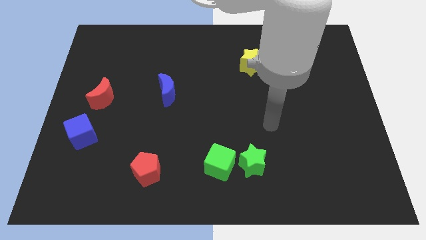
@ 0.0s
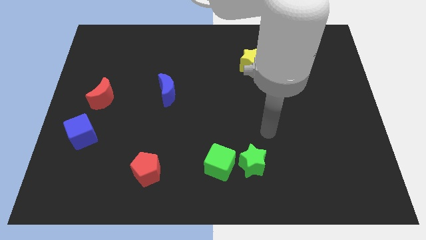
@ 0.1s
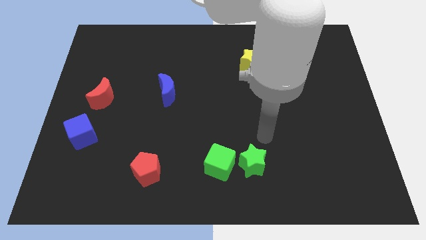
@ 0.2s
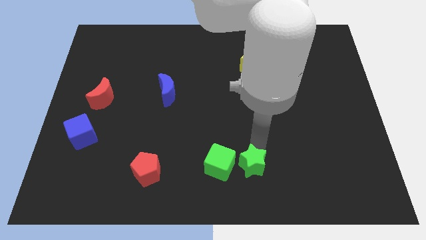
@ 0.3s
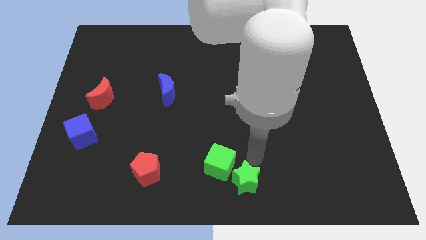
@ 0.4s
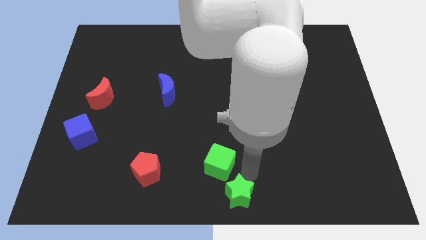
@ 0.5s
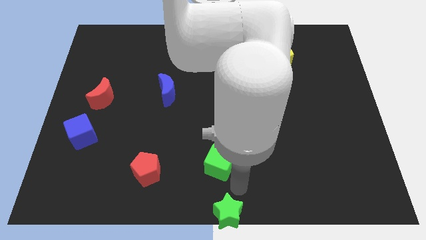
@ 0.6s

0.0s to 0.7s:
pull the green cube apart from the green star

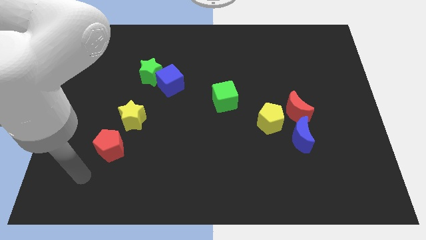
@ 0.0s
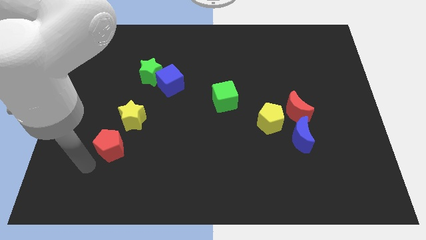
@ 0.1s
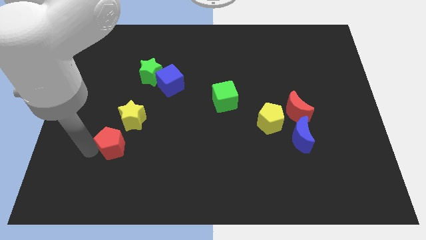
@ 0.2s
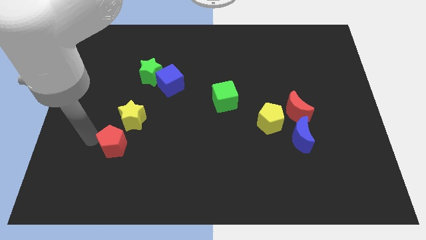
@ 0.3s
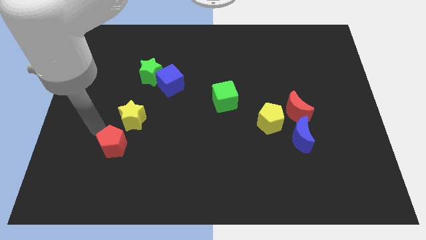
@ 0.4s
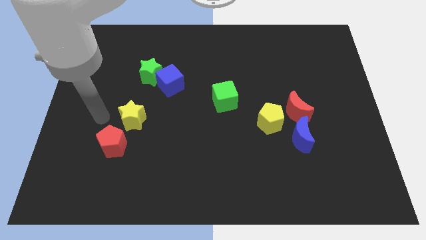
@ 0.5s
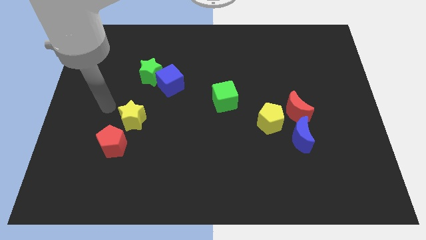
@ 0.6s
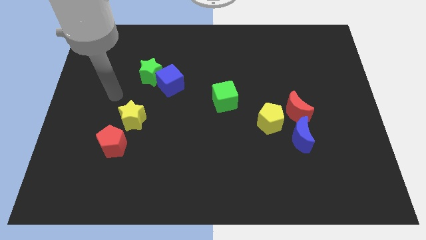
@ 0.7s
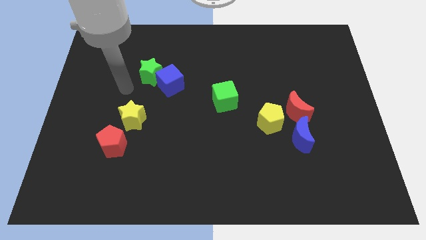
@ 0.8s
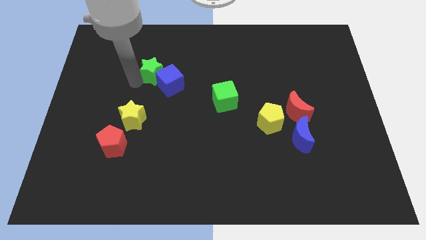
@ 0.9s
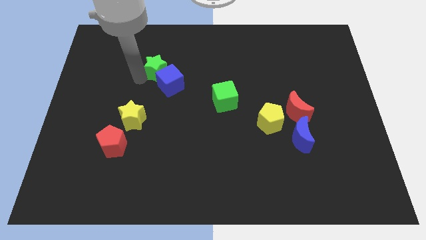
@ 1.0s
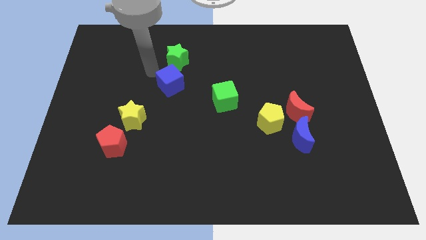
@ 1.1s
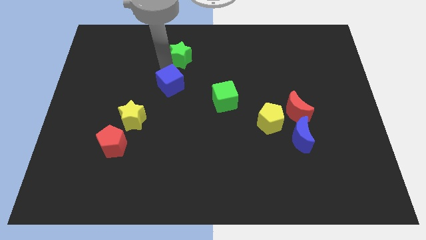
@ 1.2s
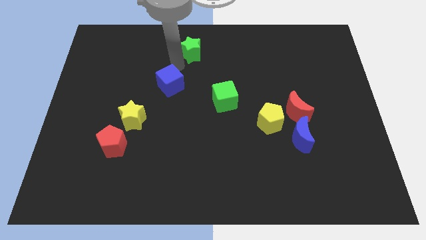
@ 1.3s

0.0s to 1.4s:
move the blue cube away from the green star

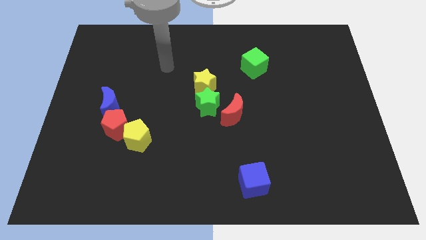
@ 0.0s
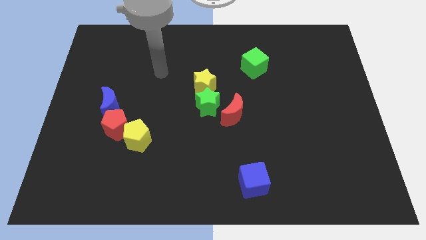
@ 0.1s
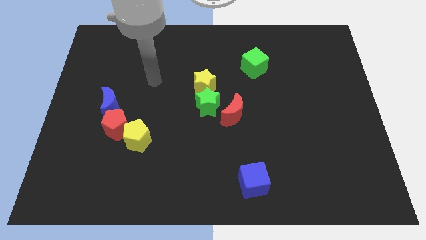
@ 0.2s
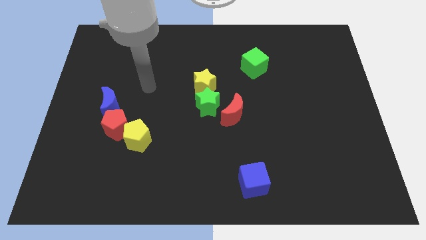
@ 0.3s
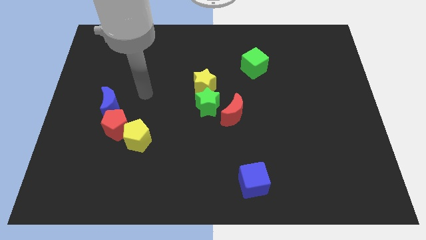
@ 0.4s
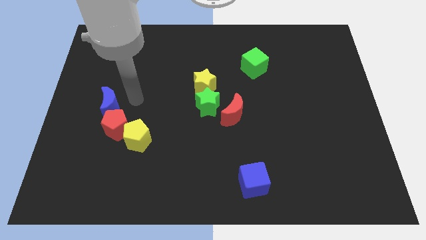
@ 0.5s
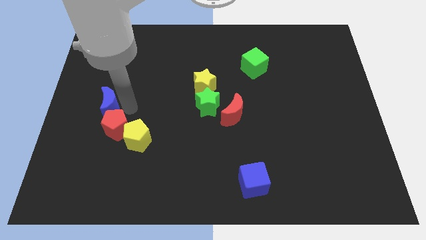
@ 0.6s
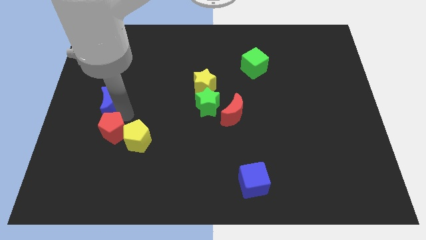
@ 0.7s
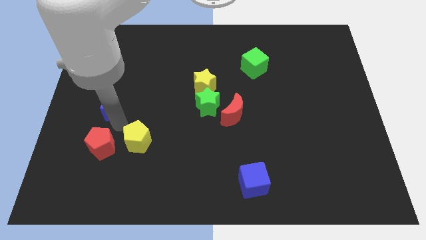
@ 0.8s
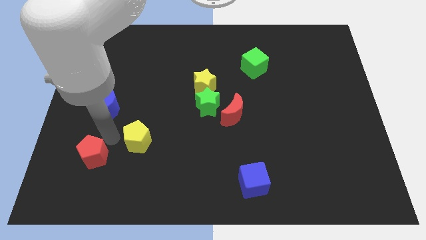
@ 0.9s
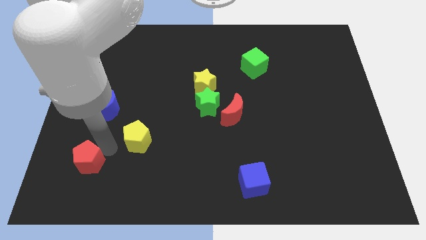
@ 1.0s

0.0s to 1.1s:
pull the yellow pentagon apart from the red pentagon

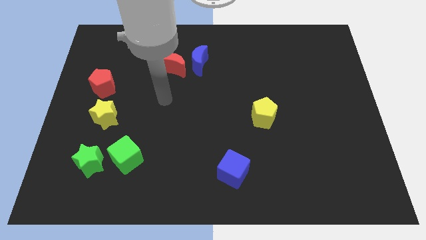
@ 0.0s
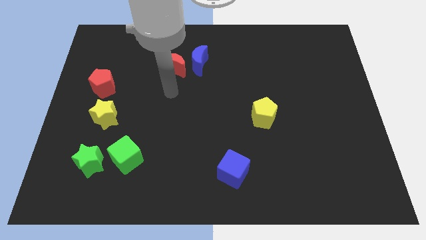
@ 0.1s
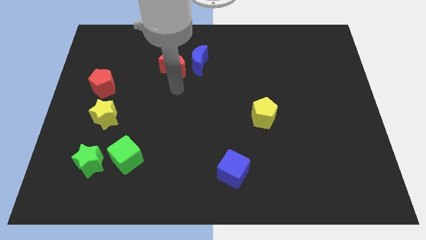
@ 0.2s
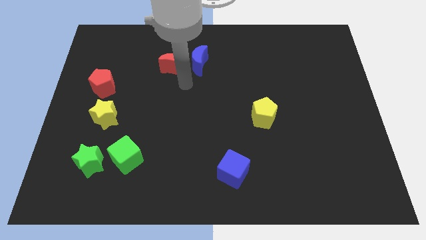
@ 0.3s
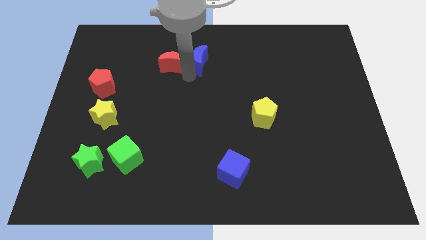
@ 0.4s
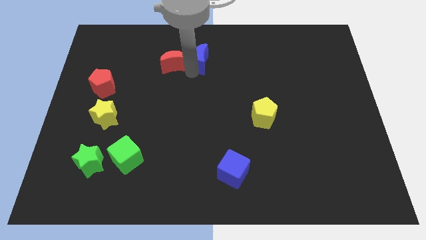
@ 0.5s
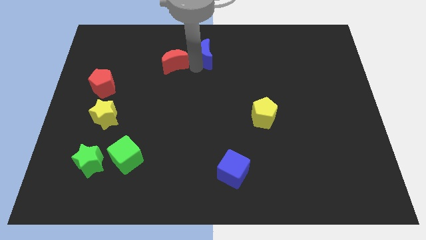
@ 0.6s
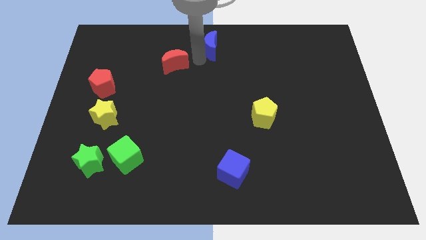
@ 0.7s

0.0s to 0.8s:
separate the red moon from the blue moon

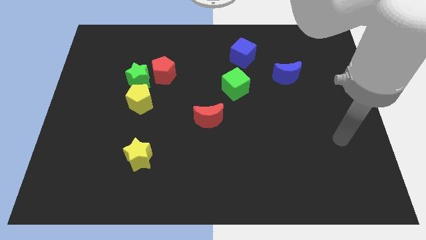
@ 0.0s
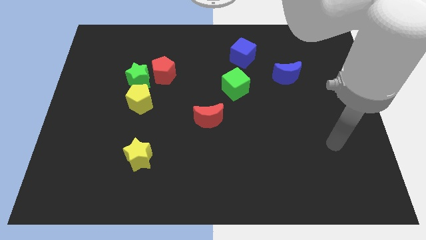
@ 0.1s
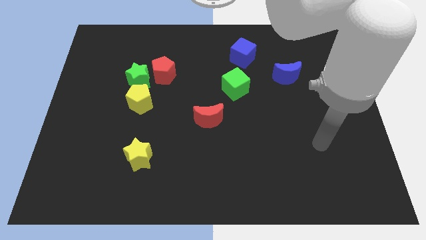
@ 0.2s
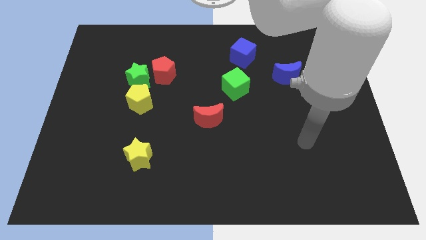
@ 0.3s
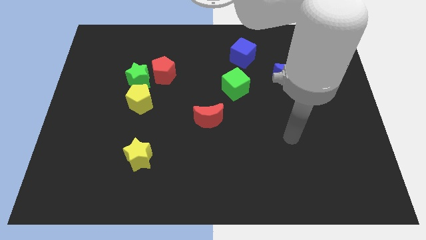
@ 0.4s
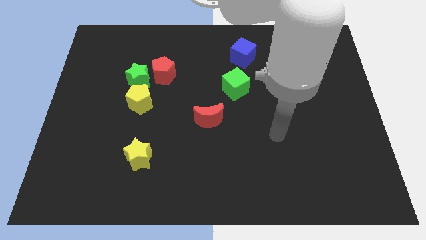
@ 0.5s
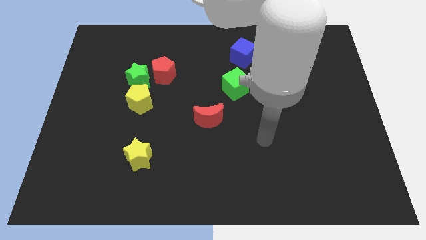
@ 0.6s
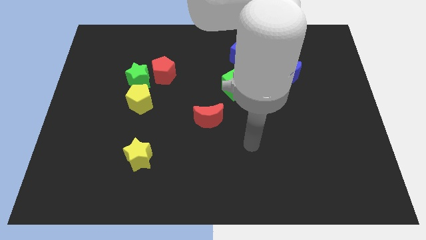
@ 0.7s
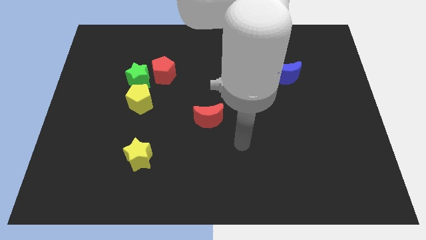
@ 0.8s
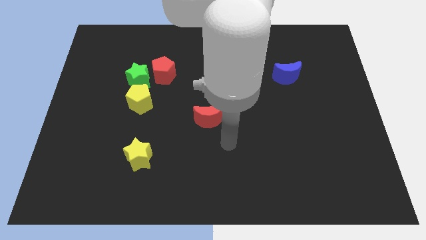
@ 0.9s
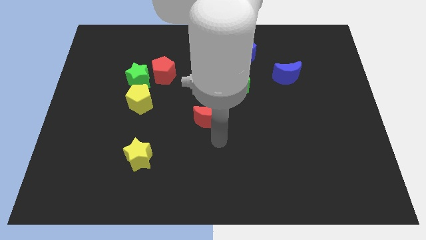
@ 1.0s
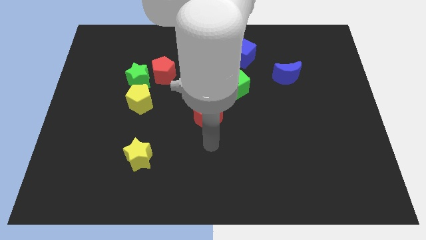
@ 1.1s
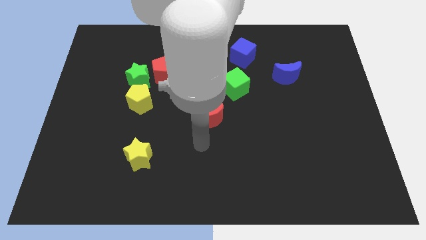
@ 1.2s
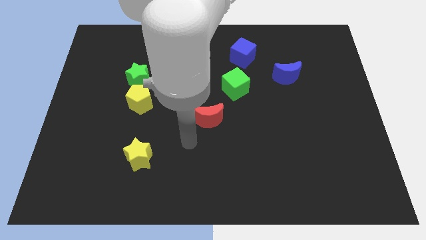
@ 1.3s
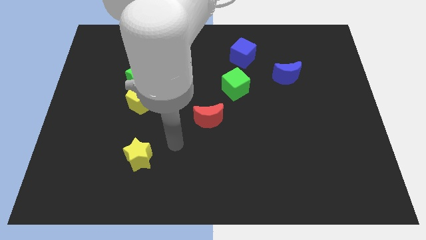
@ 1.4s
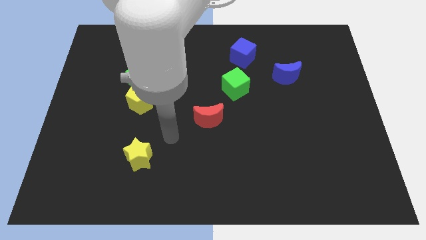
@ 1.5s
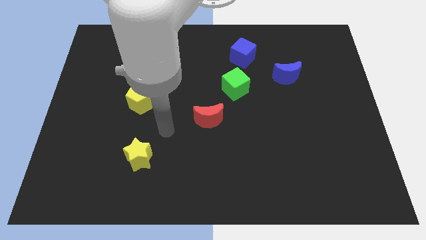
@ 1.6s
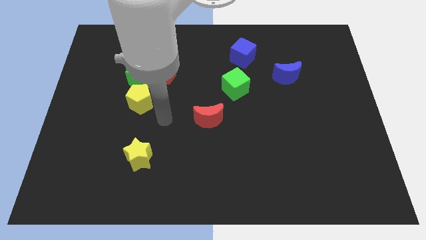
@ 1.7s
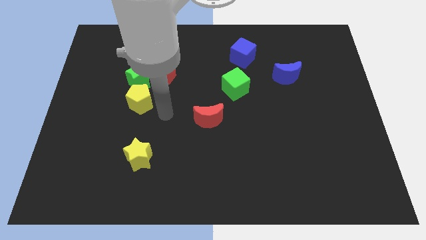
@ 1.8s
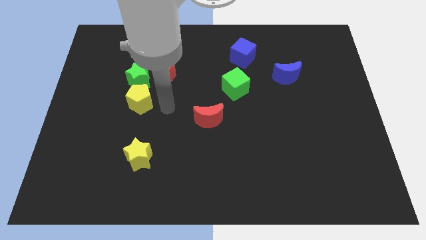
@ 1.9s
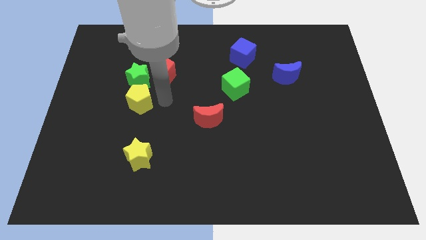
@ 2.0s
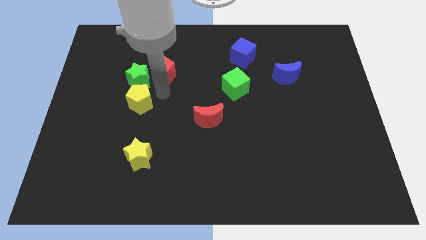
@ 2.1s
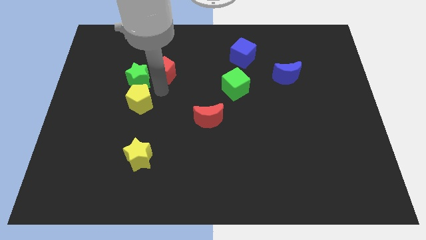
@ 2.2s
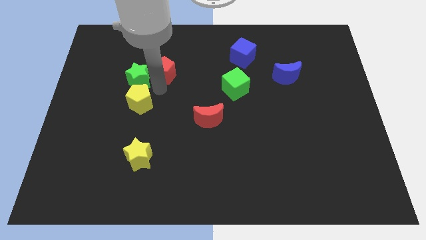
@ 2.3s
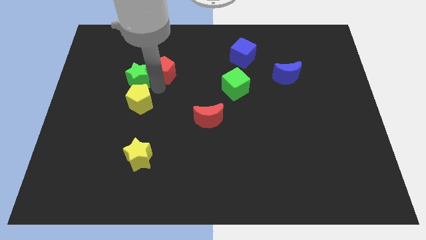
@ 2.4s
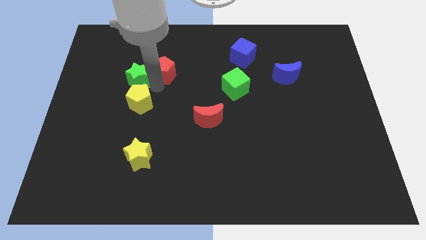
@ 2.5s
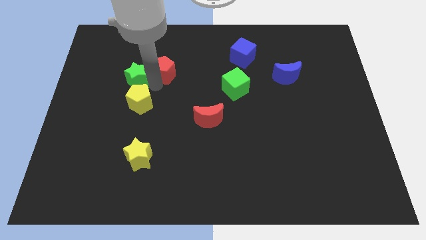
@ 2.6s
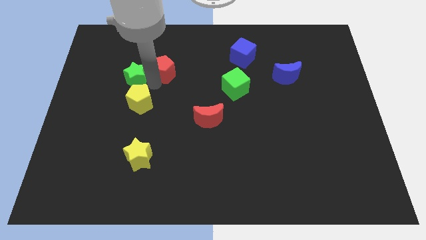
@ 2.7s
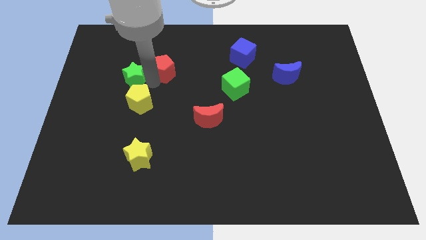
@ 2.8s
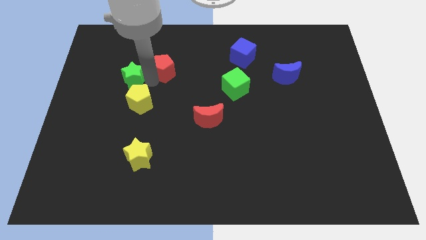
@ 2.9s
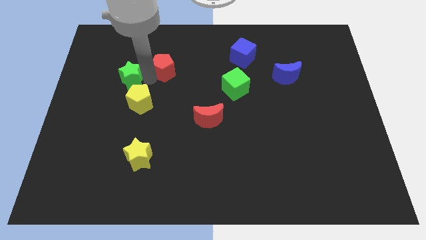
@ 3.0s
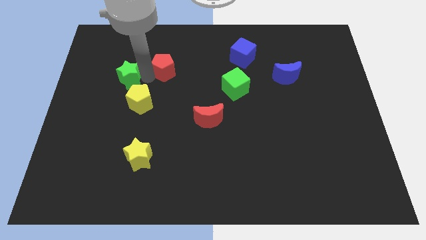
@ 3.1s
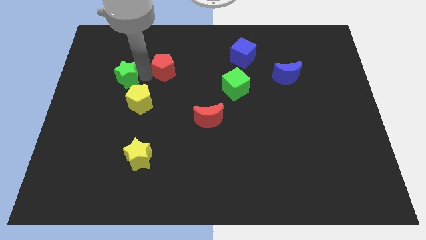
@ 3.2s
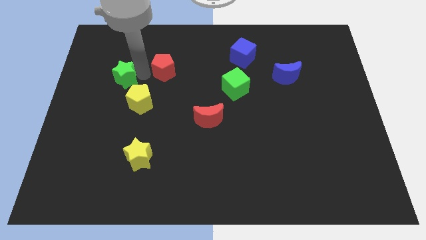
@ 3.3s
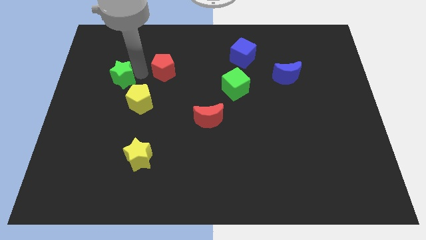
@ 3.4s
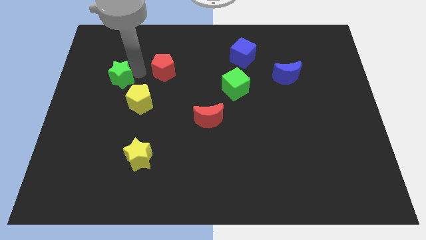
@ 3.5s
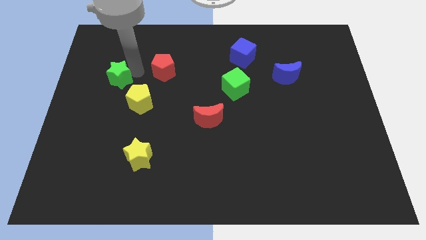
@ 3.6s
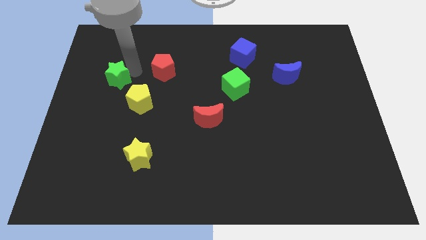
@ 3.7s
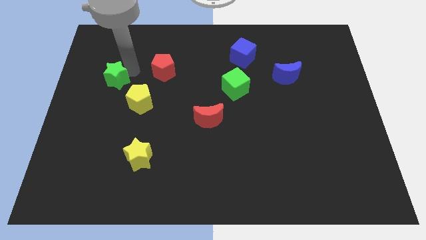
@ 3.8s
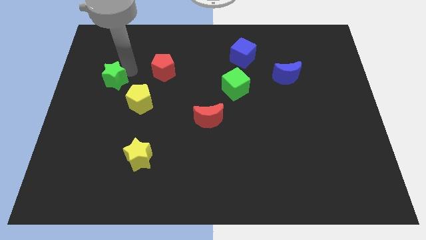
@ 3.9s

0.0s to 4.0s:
pull the green star apart from the red pentagon and yellow pentagon

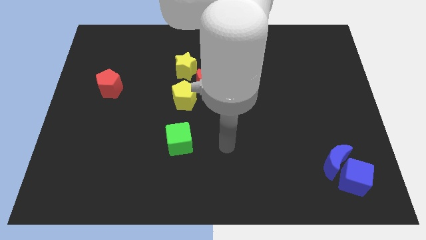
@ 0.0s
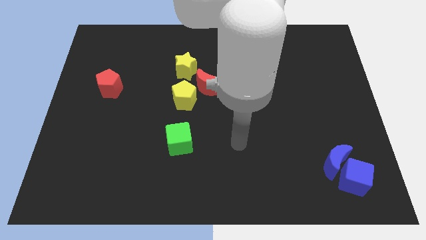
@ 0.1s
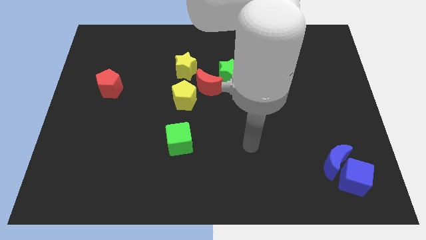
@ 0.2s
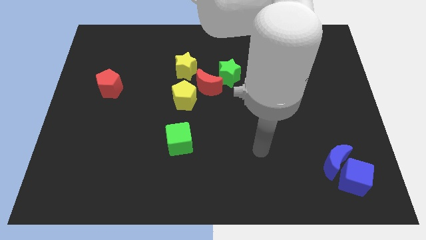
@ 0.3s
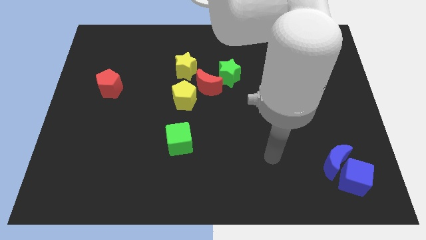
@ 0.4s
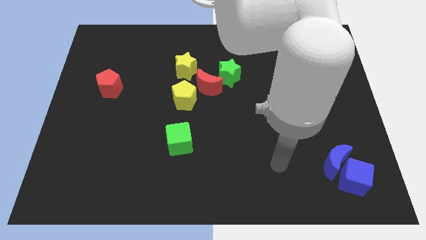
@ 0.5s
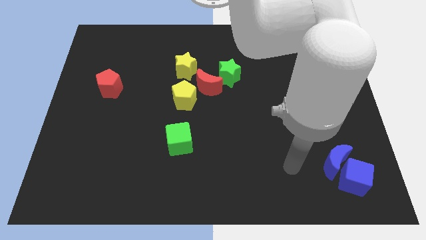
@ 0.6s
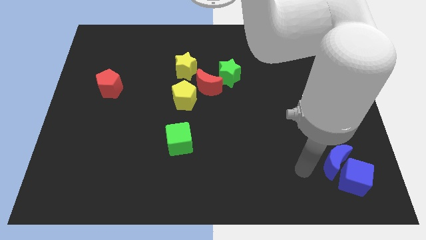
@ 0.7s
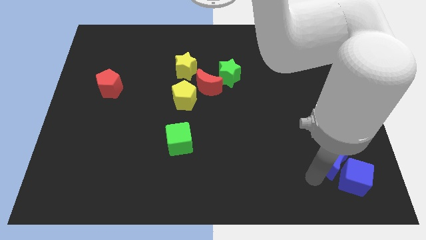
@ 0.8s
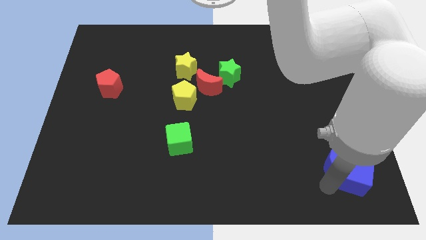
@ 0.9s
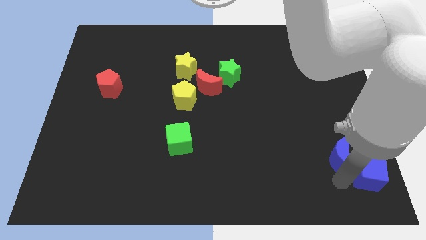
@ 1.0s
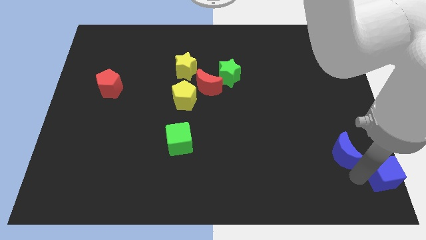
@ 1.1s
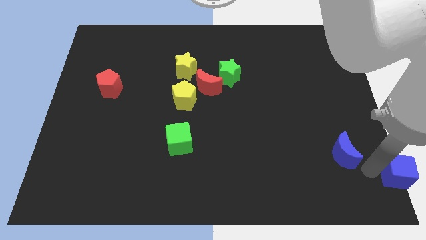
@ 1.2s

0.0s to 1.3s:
pull the blue moon apart from the blue cube
